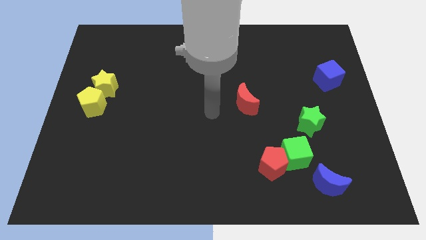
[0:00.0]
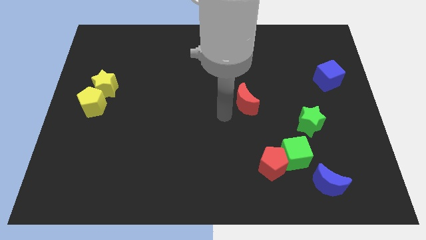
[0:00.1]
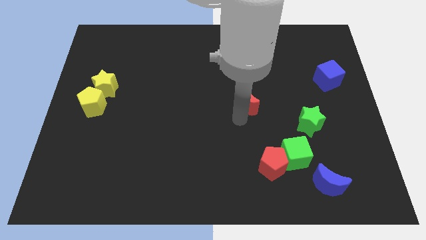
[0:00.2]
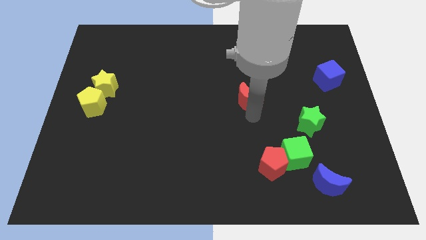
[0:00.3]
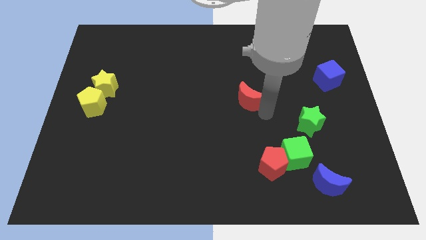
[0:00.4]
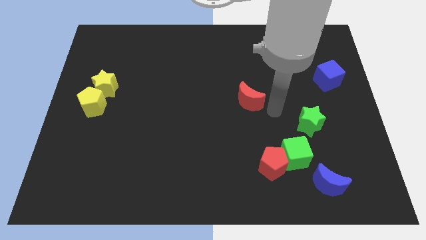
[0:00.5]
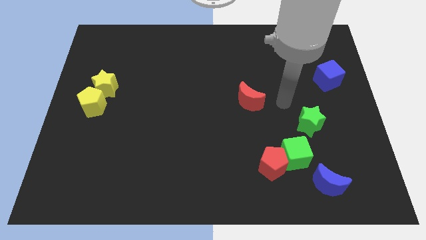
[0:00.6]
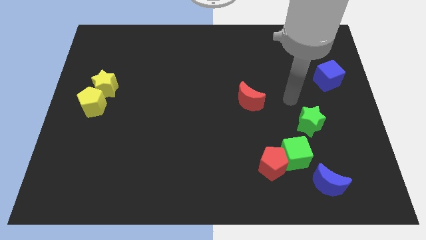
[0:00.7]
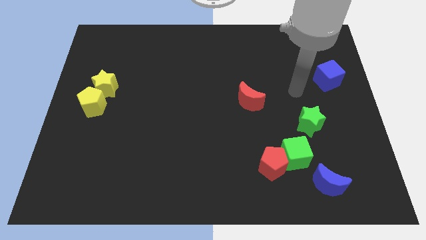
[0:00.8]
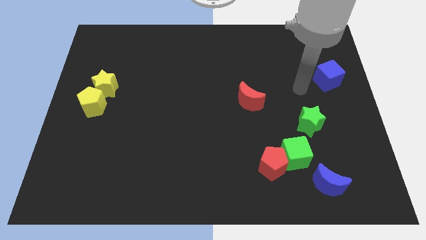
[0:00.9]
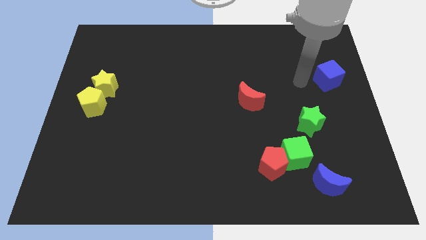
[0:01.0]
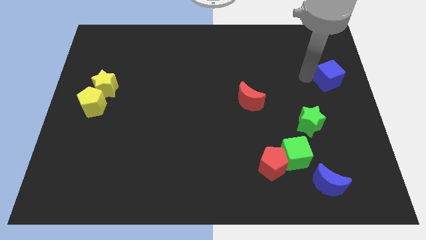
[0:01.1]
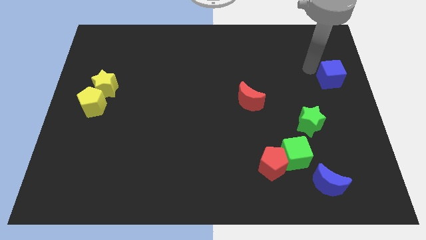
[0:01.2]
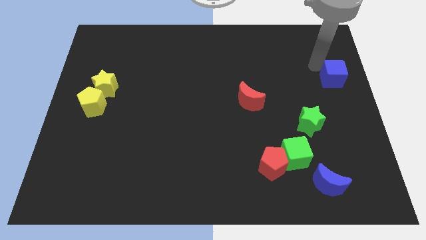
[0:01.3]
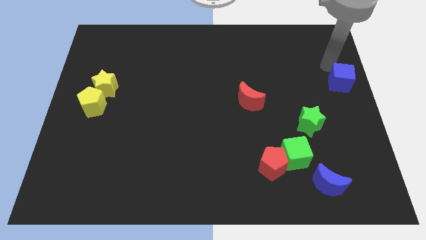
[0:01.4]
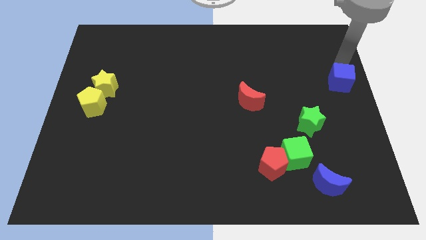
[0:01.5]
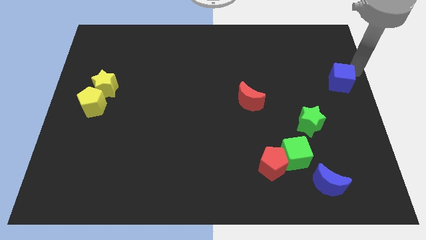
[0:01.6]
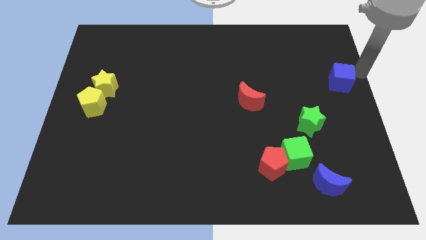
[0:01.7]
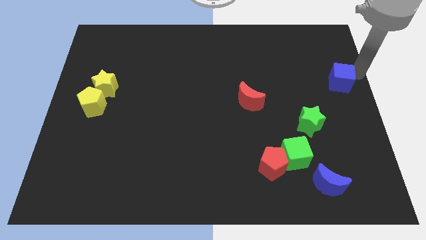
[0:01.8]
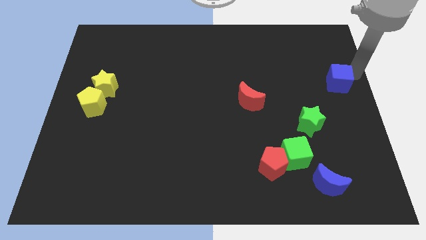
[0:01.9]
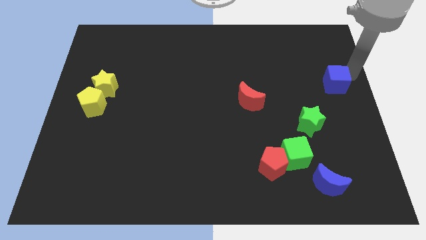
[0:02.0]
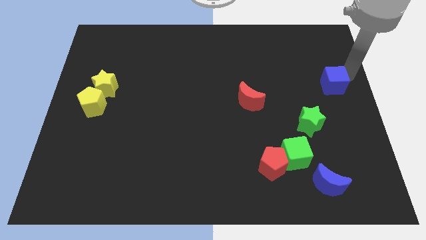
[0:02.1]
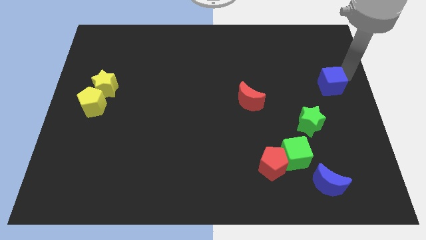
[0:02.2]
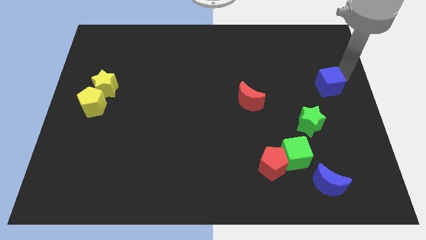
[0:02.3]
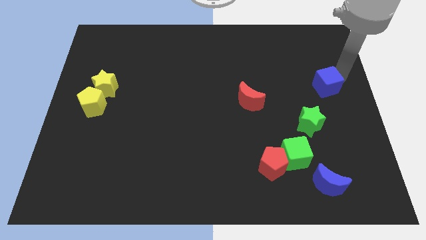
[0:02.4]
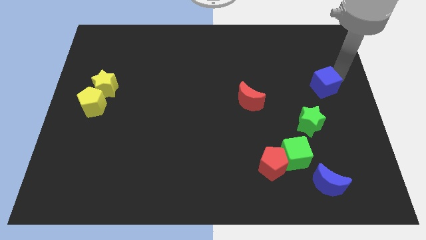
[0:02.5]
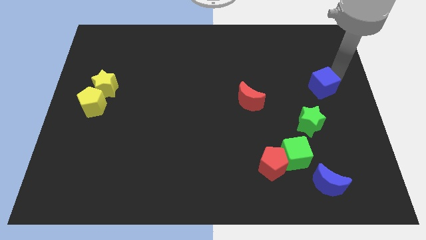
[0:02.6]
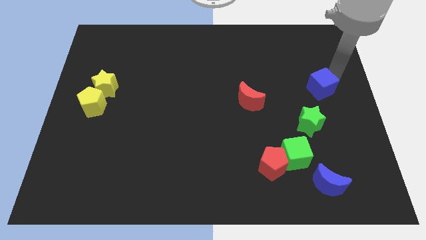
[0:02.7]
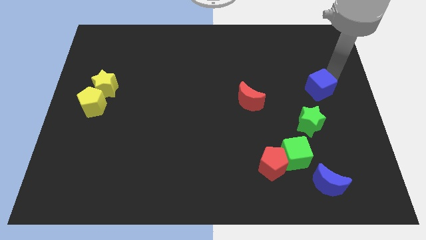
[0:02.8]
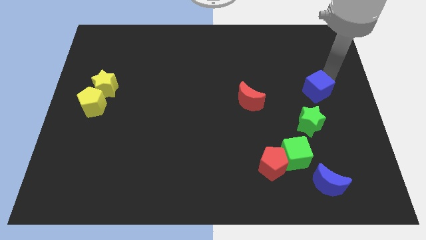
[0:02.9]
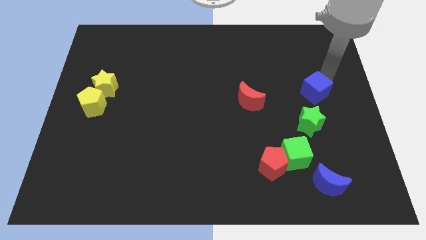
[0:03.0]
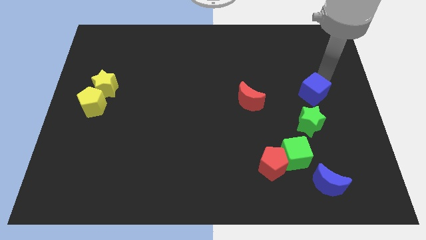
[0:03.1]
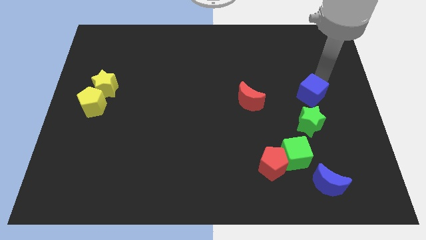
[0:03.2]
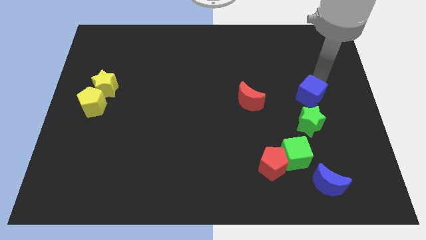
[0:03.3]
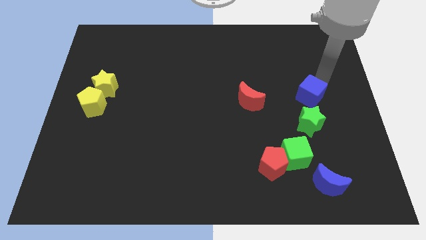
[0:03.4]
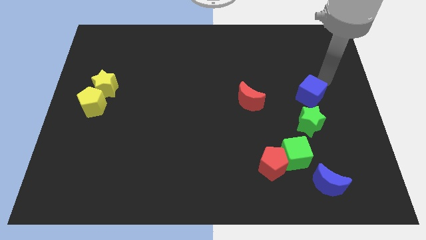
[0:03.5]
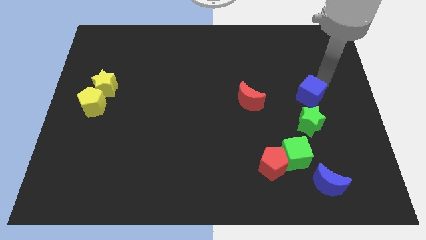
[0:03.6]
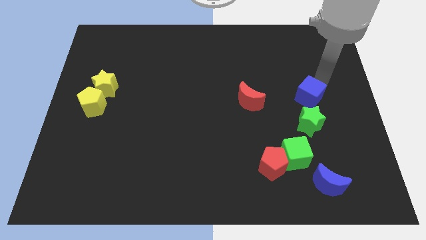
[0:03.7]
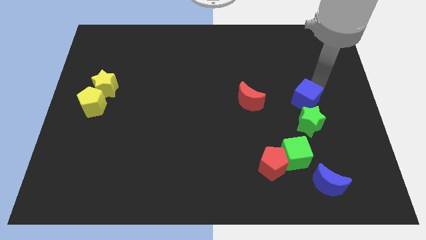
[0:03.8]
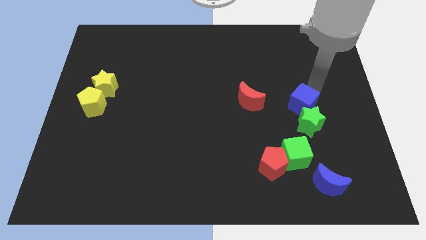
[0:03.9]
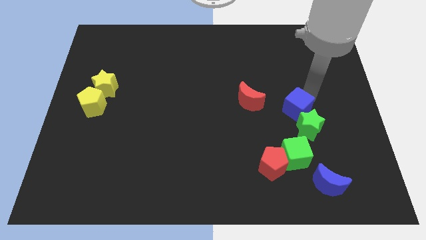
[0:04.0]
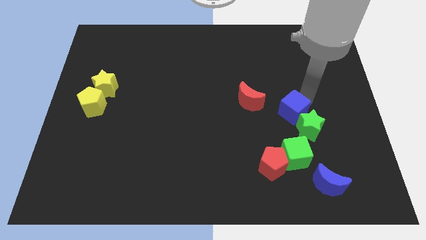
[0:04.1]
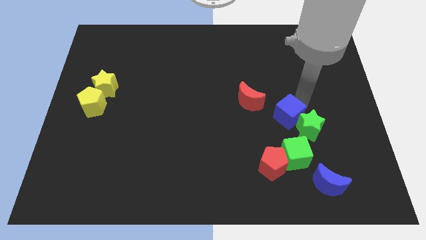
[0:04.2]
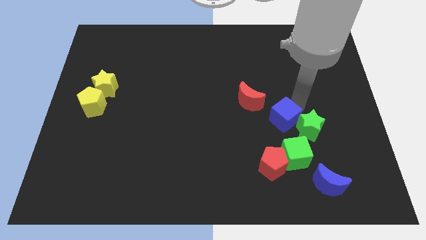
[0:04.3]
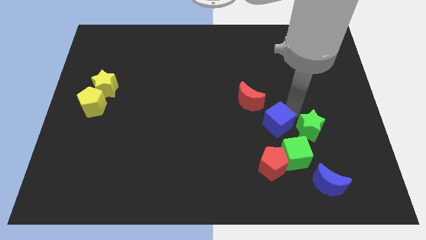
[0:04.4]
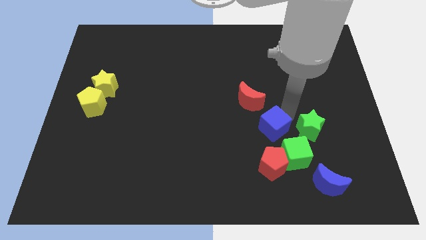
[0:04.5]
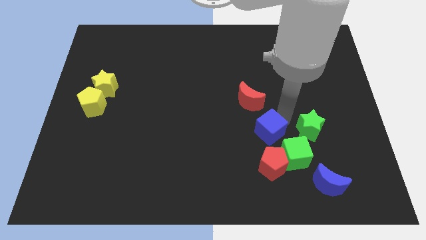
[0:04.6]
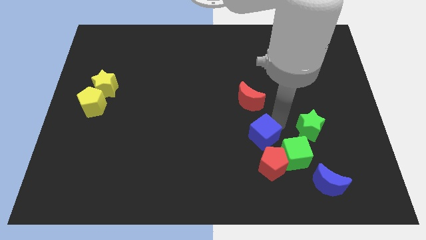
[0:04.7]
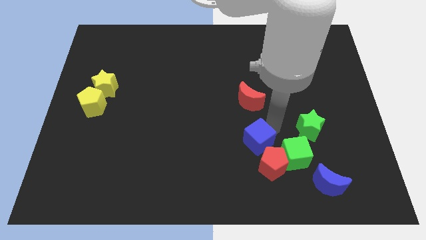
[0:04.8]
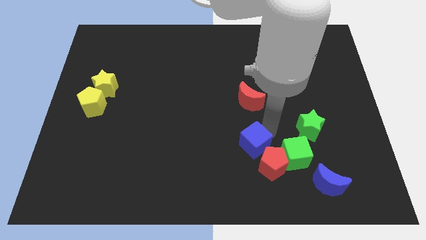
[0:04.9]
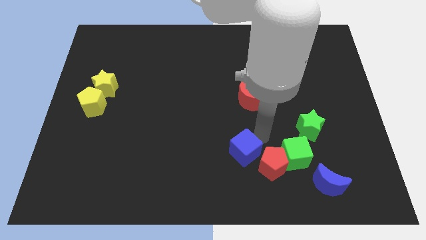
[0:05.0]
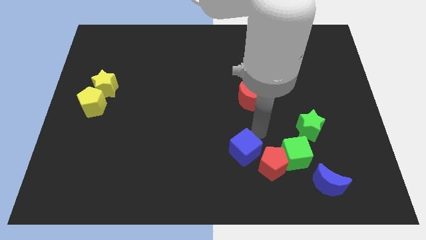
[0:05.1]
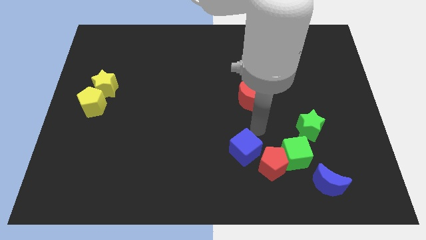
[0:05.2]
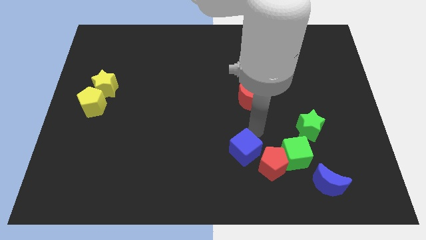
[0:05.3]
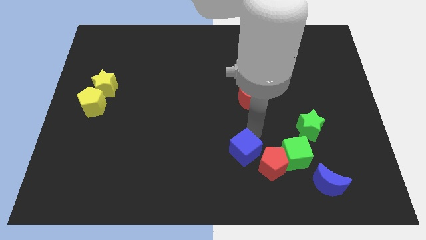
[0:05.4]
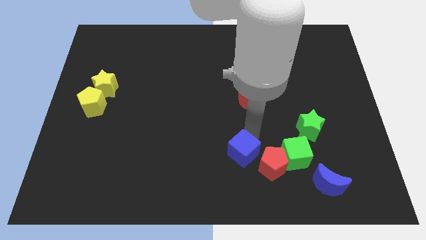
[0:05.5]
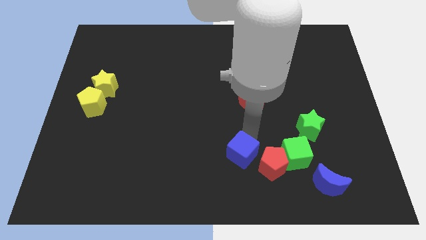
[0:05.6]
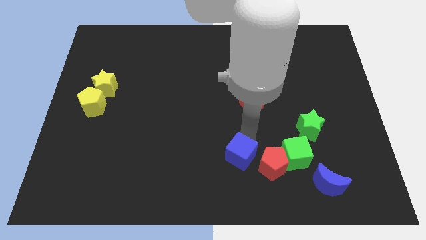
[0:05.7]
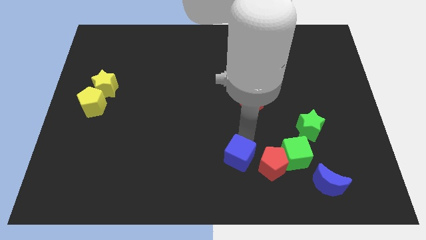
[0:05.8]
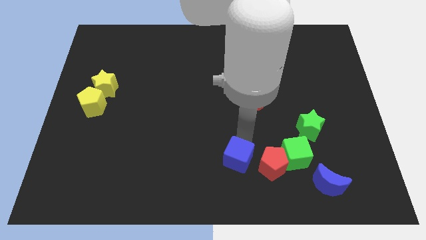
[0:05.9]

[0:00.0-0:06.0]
put the blue cube to the bottom side
